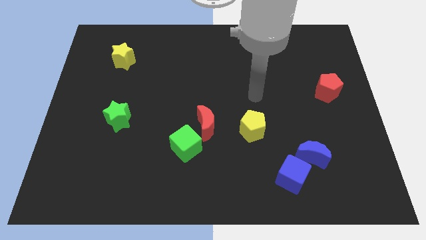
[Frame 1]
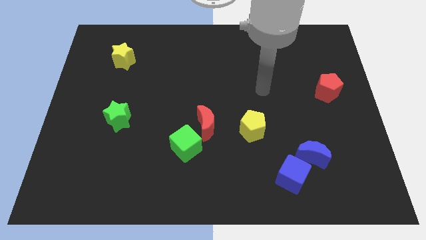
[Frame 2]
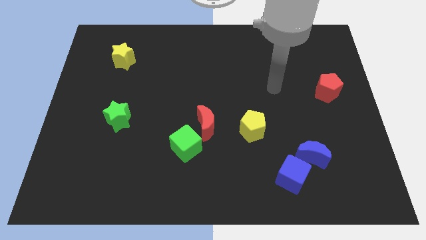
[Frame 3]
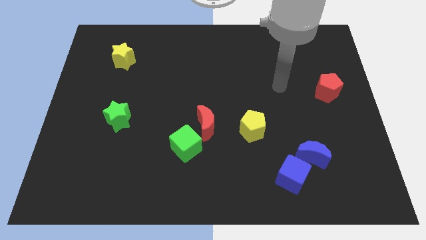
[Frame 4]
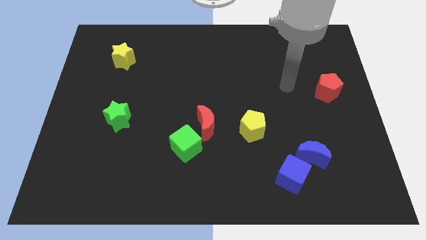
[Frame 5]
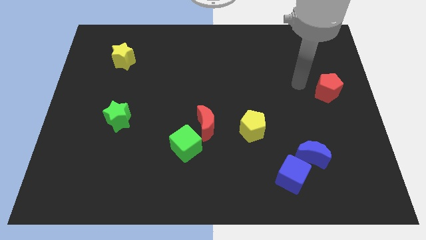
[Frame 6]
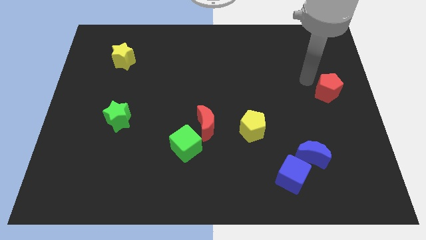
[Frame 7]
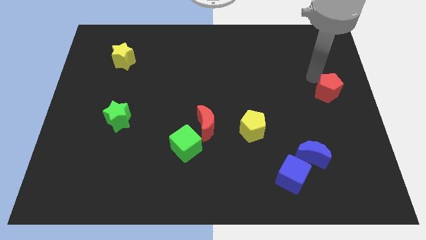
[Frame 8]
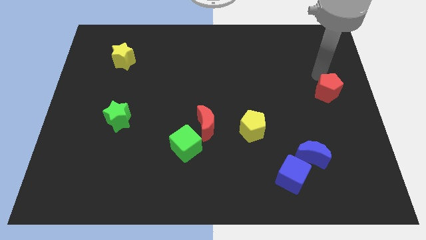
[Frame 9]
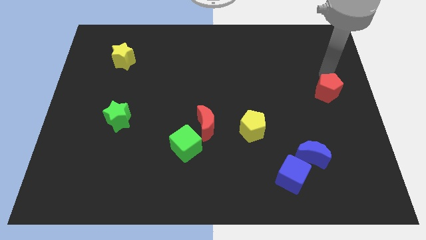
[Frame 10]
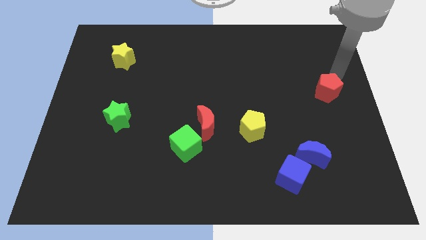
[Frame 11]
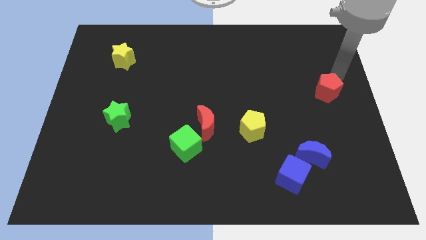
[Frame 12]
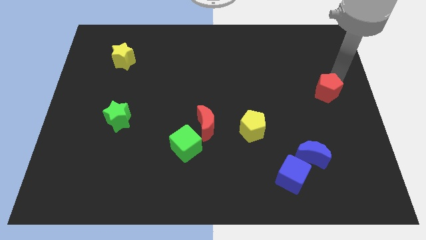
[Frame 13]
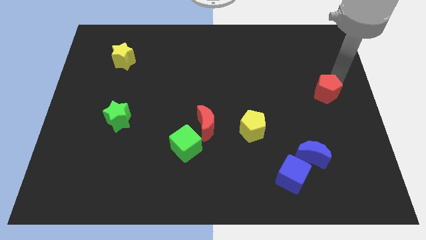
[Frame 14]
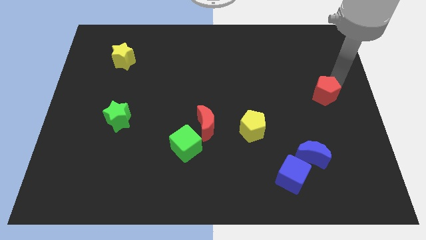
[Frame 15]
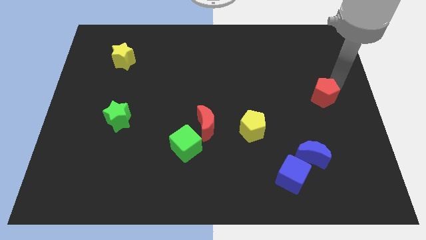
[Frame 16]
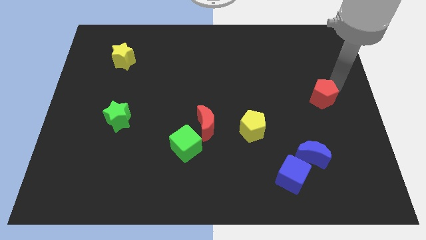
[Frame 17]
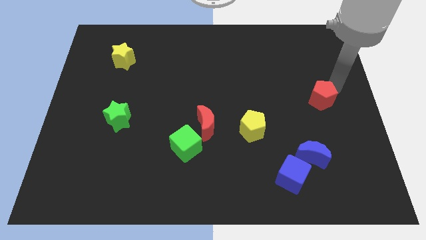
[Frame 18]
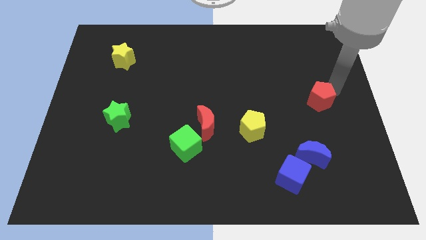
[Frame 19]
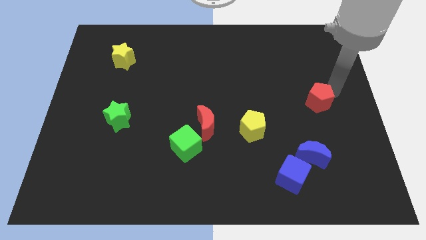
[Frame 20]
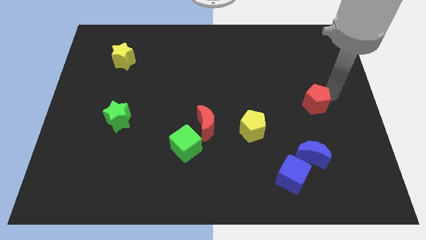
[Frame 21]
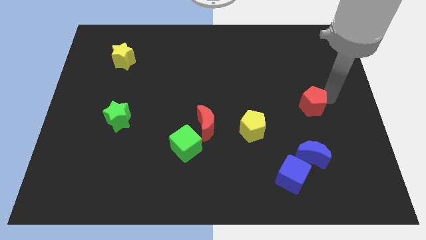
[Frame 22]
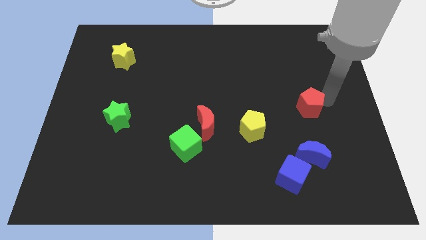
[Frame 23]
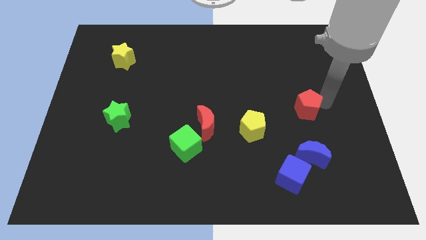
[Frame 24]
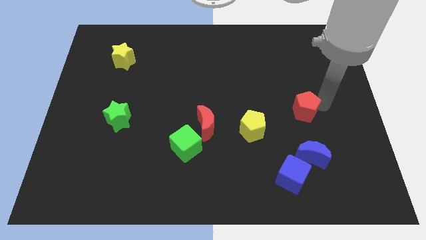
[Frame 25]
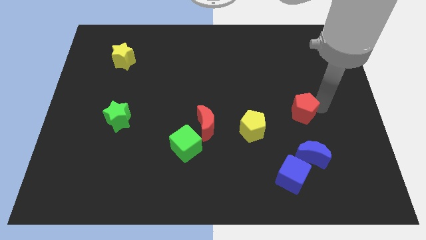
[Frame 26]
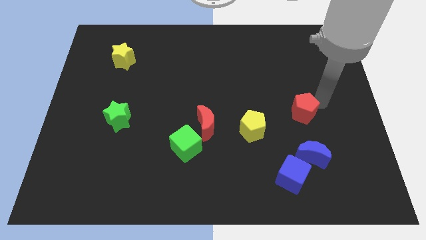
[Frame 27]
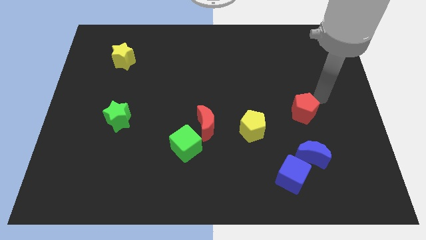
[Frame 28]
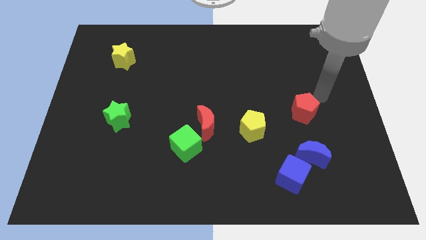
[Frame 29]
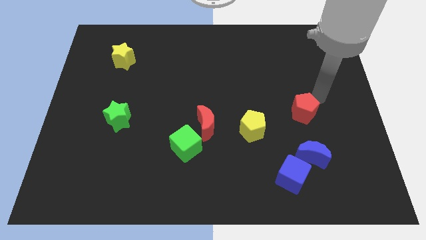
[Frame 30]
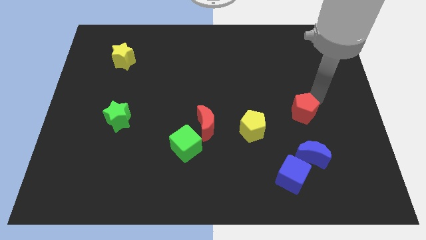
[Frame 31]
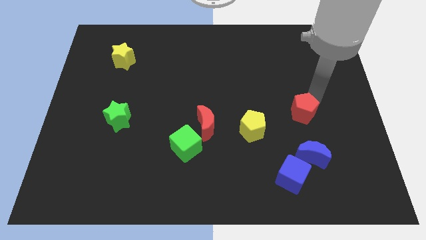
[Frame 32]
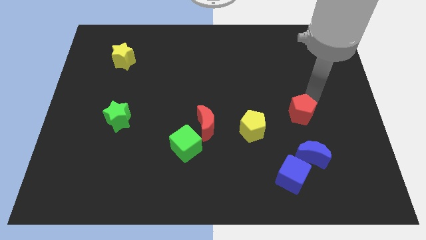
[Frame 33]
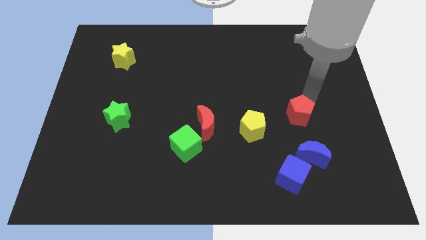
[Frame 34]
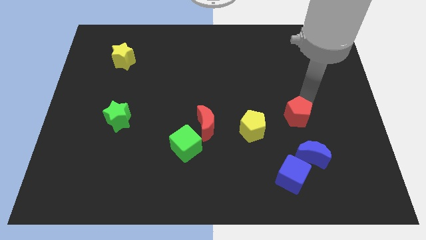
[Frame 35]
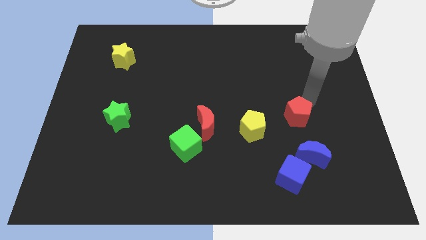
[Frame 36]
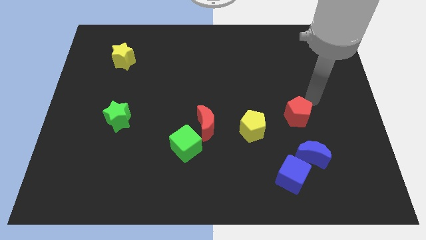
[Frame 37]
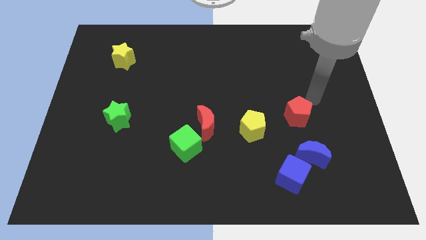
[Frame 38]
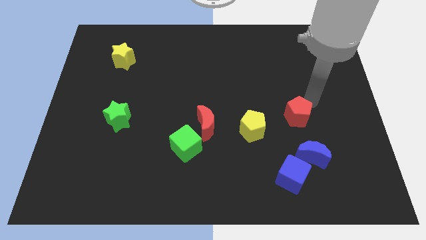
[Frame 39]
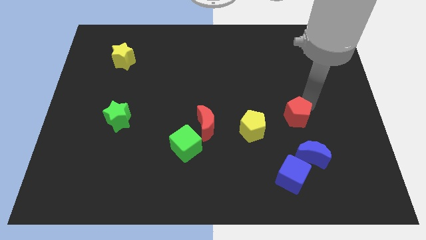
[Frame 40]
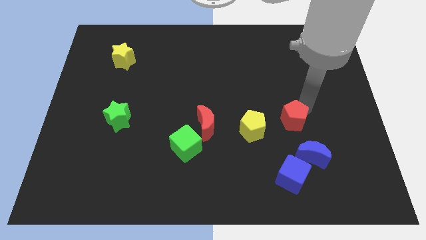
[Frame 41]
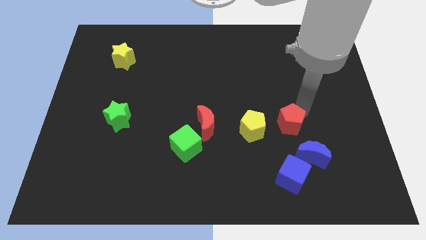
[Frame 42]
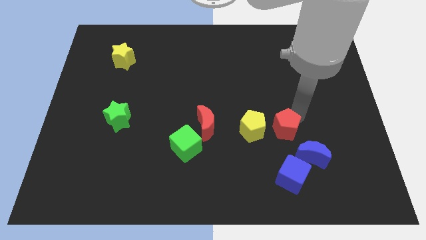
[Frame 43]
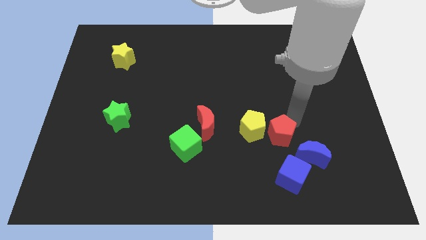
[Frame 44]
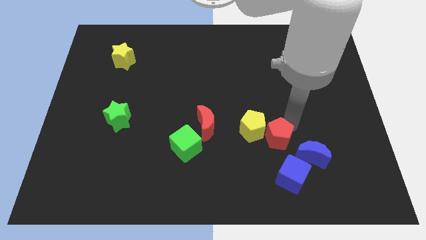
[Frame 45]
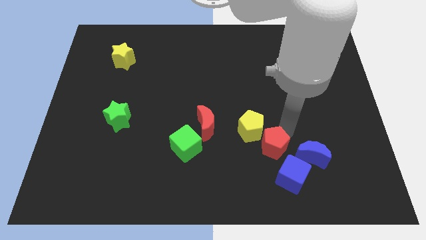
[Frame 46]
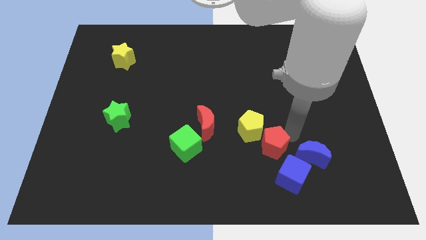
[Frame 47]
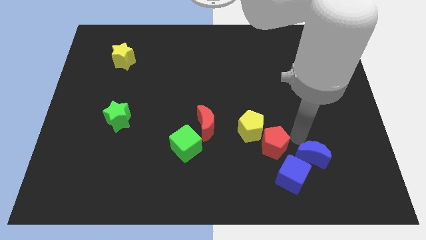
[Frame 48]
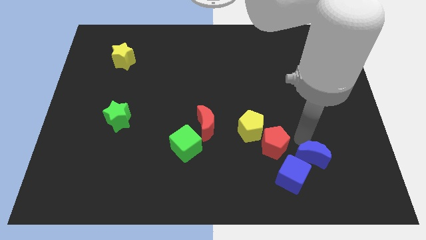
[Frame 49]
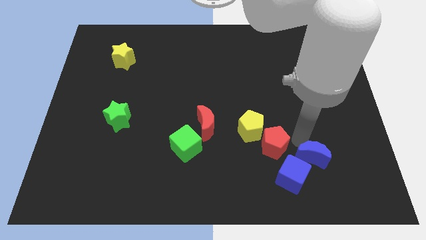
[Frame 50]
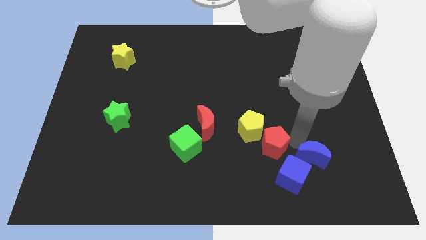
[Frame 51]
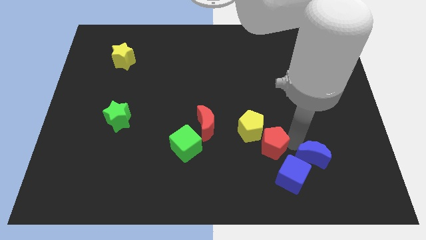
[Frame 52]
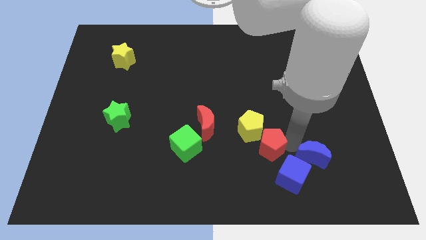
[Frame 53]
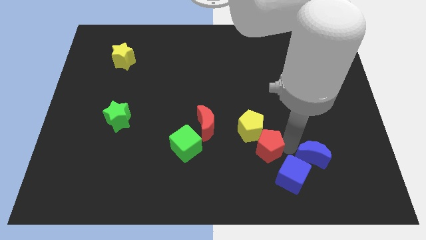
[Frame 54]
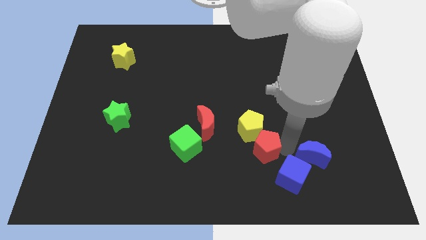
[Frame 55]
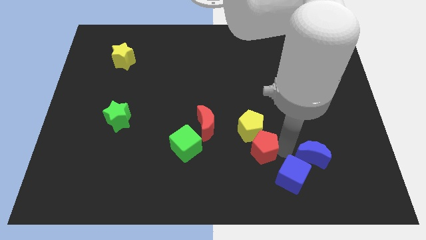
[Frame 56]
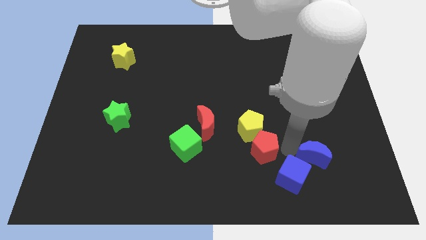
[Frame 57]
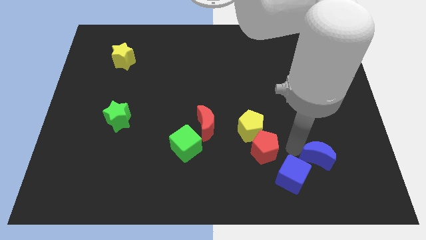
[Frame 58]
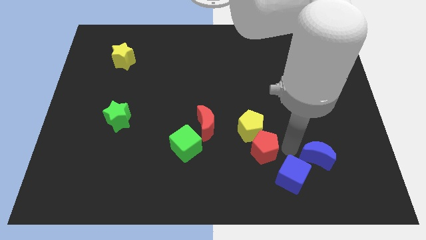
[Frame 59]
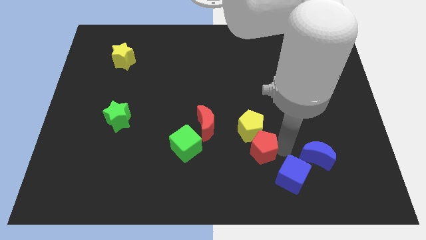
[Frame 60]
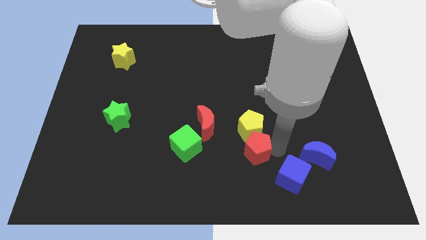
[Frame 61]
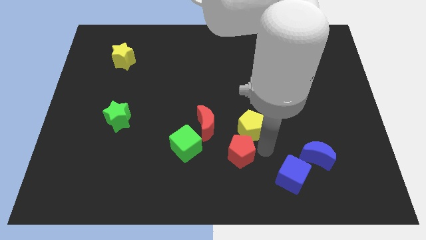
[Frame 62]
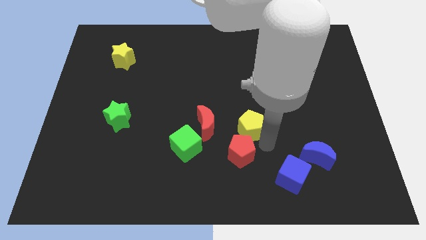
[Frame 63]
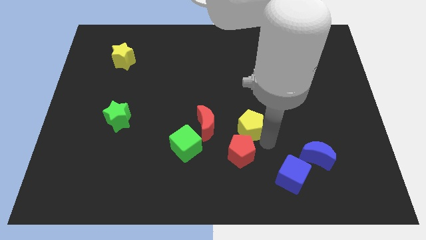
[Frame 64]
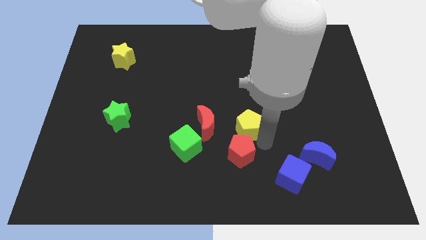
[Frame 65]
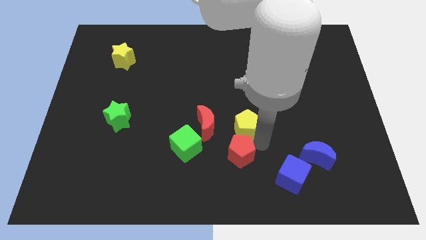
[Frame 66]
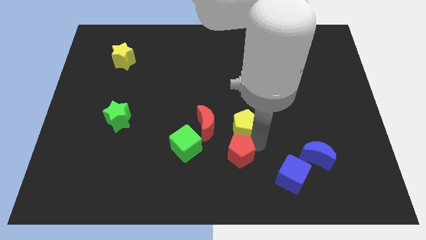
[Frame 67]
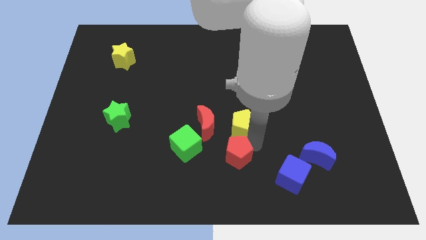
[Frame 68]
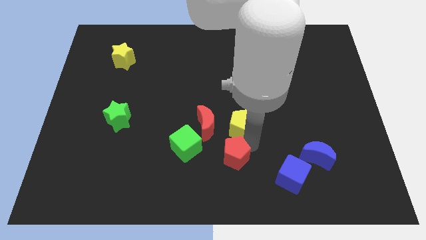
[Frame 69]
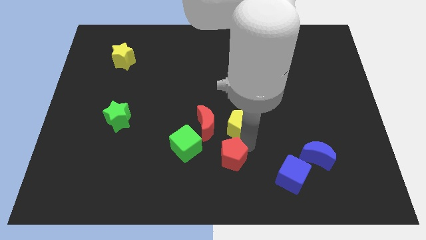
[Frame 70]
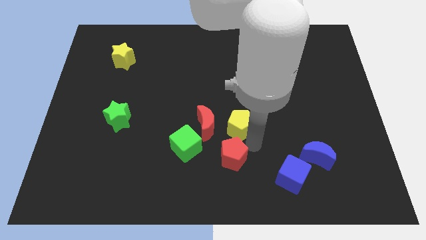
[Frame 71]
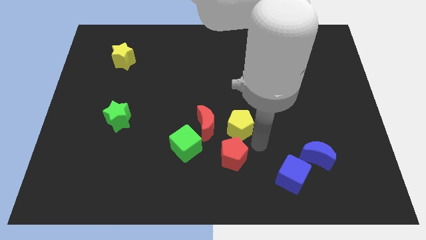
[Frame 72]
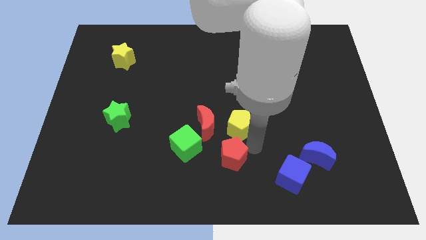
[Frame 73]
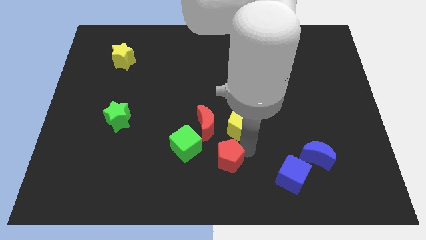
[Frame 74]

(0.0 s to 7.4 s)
slide the red pentagon to the bottom right side of the green cube
